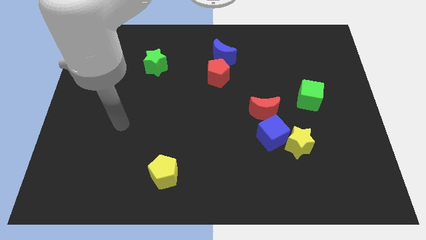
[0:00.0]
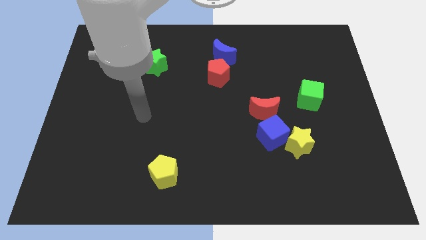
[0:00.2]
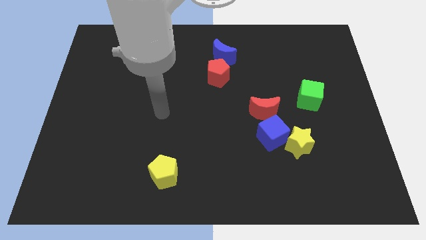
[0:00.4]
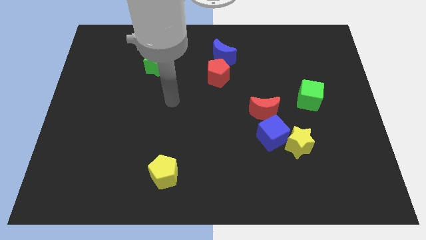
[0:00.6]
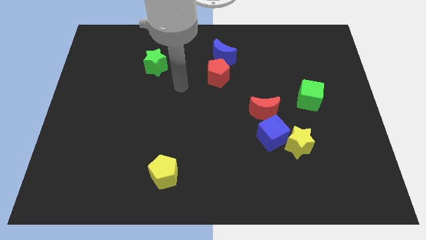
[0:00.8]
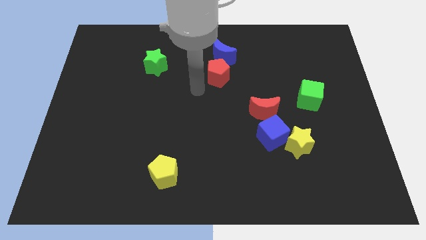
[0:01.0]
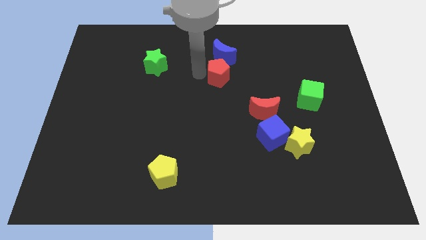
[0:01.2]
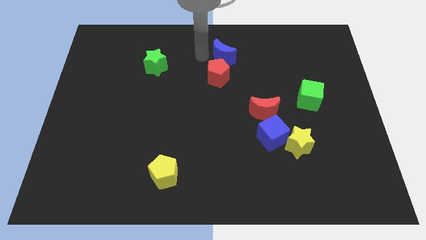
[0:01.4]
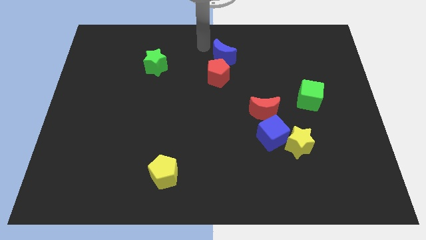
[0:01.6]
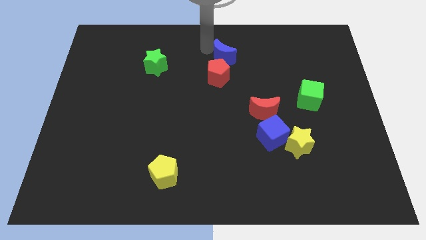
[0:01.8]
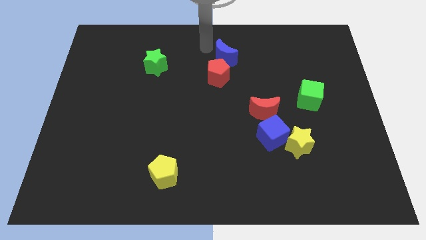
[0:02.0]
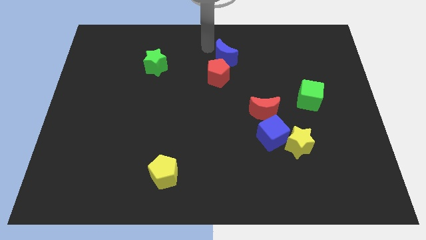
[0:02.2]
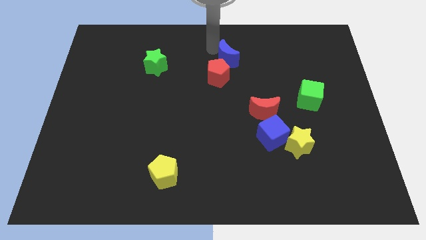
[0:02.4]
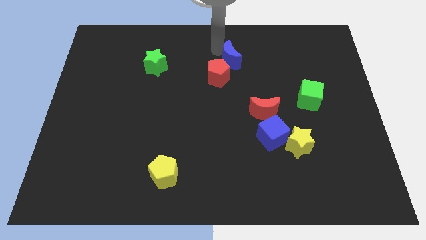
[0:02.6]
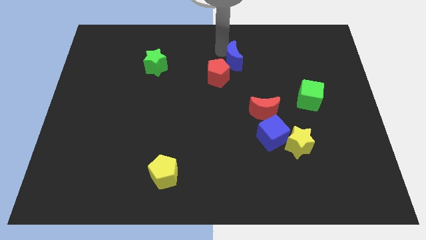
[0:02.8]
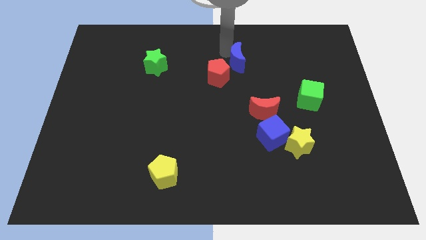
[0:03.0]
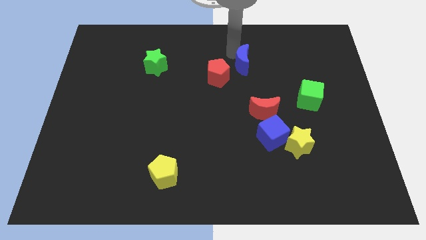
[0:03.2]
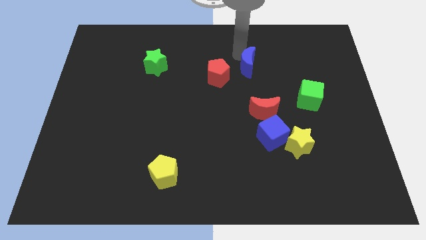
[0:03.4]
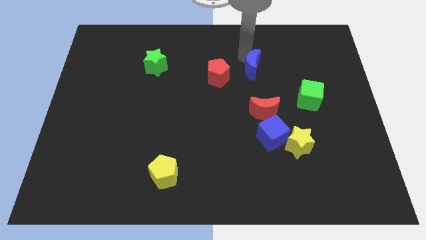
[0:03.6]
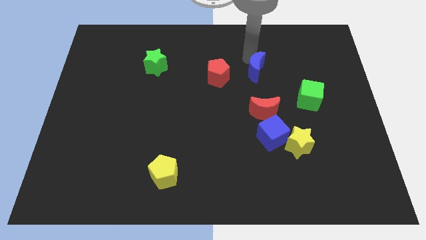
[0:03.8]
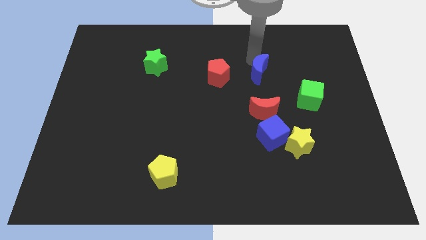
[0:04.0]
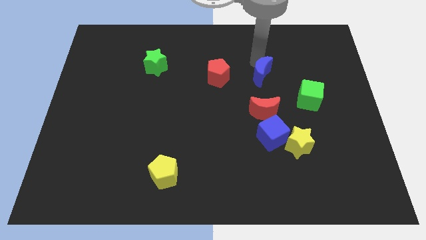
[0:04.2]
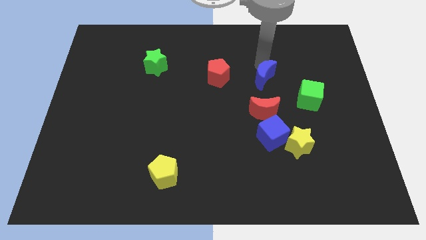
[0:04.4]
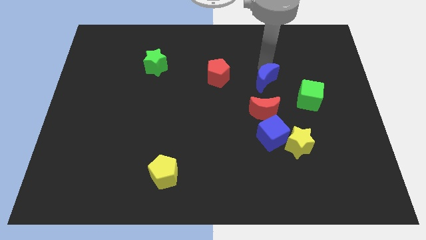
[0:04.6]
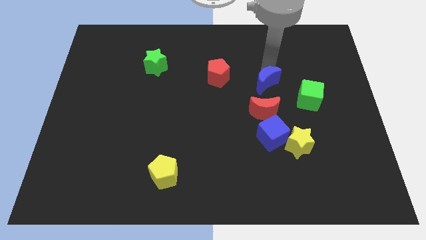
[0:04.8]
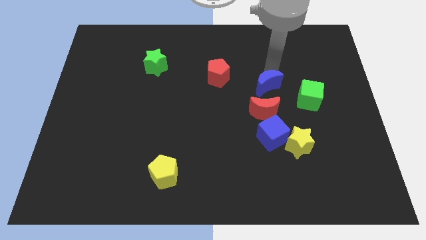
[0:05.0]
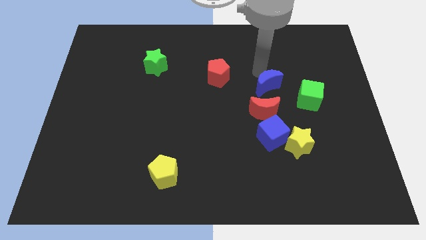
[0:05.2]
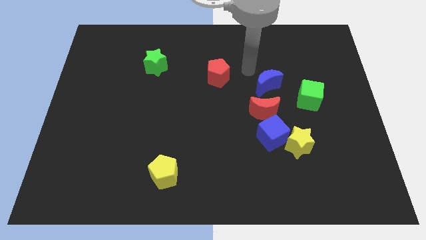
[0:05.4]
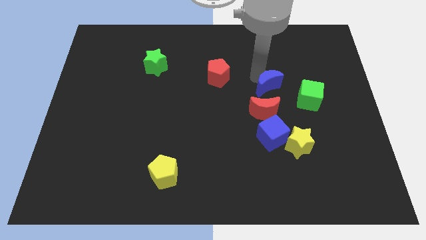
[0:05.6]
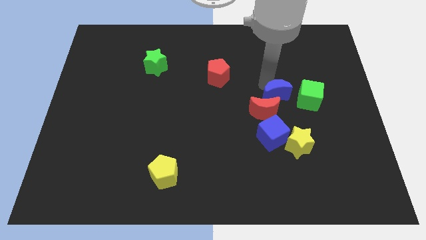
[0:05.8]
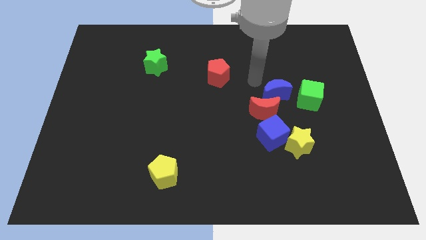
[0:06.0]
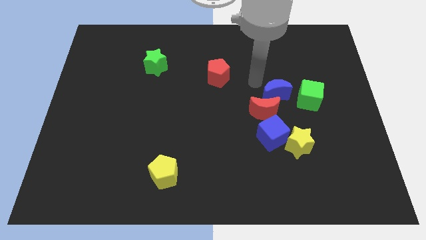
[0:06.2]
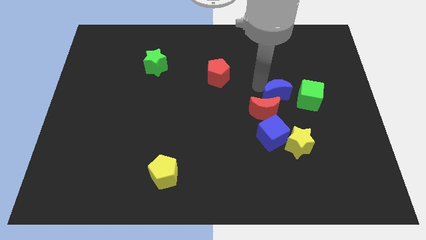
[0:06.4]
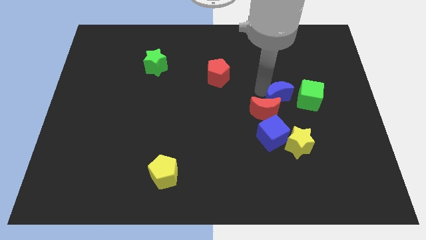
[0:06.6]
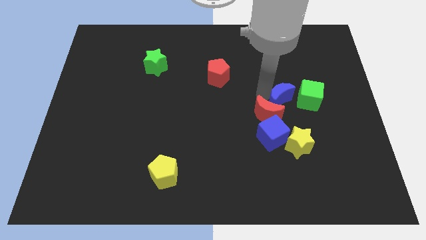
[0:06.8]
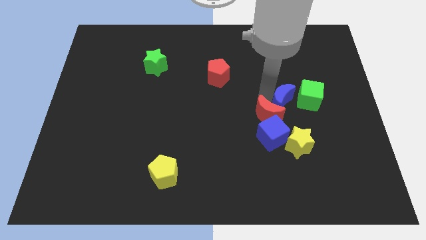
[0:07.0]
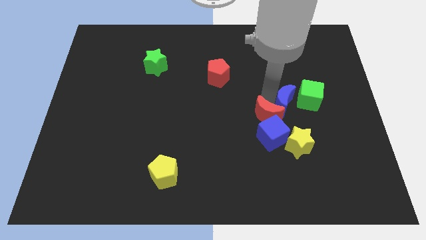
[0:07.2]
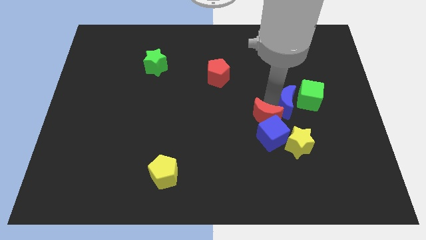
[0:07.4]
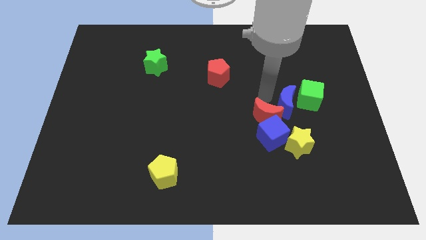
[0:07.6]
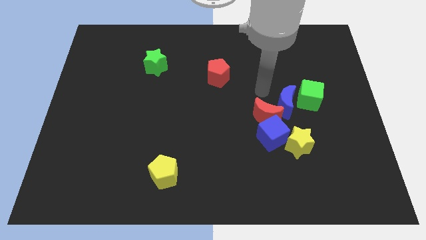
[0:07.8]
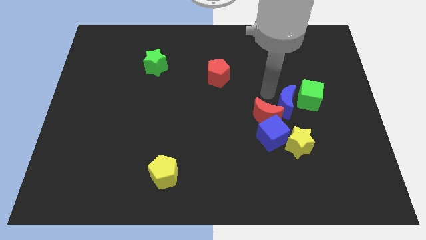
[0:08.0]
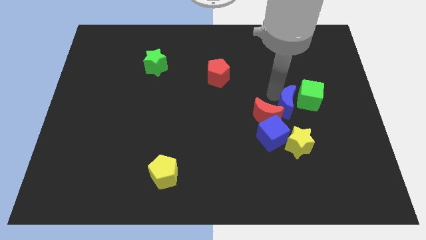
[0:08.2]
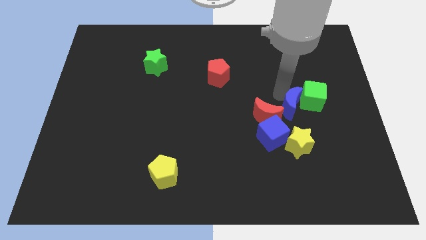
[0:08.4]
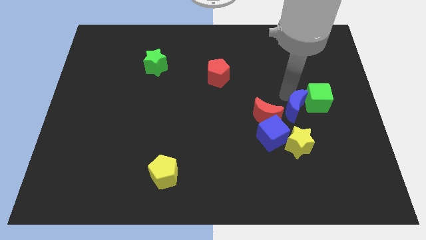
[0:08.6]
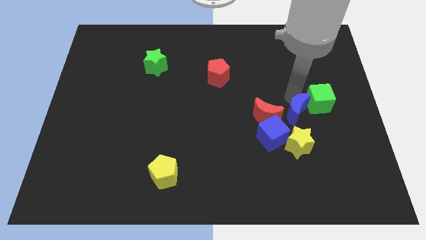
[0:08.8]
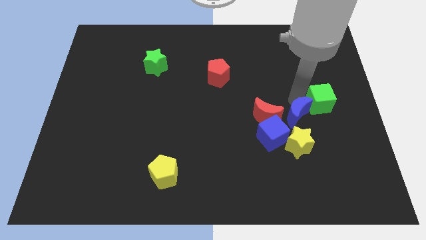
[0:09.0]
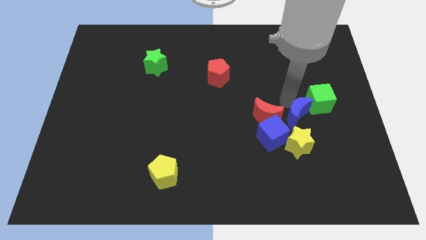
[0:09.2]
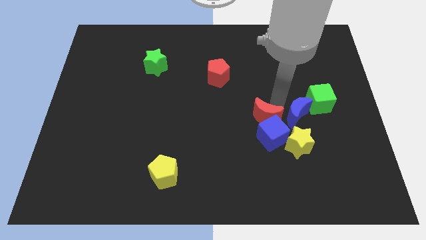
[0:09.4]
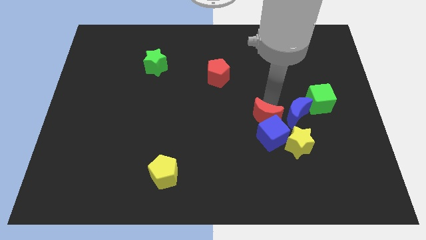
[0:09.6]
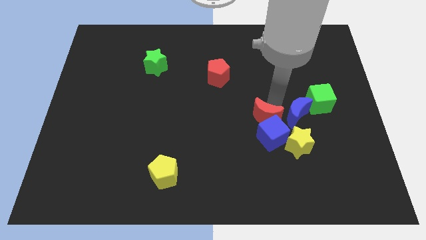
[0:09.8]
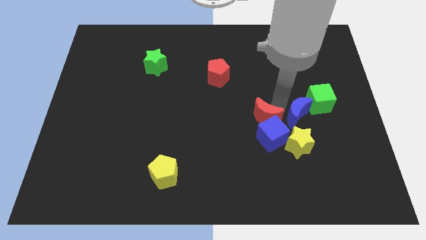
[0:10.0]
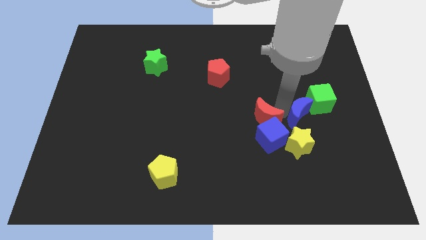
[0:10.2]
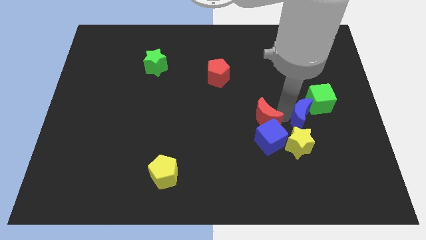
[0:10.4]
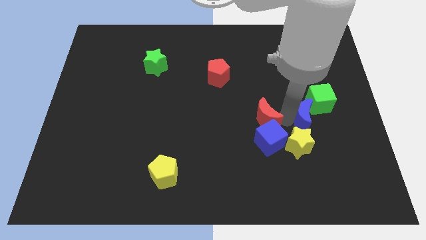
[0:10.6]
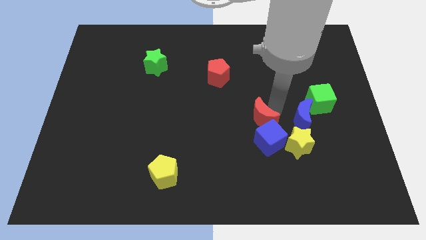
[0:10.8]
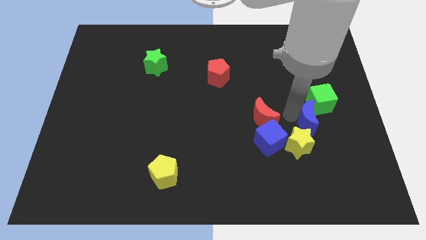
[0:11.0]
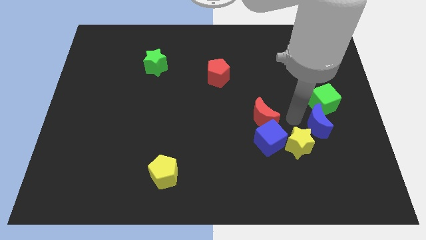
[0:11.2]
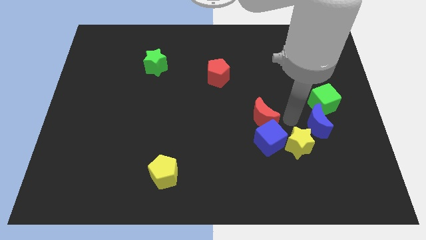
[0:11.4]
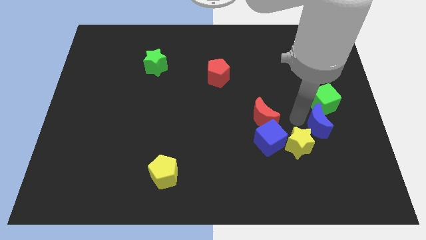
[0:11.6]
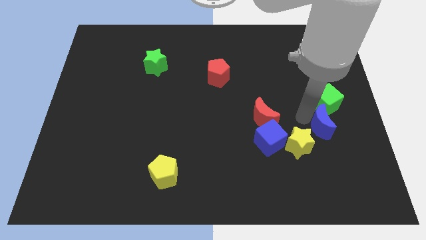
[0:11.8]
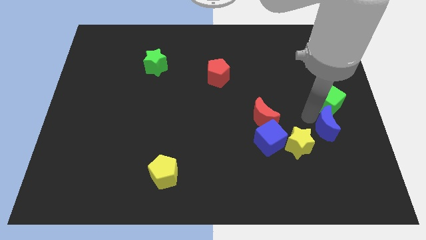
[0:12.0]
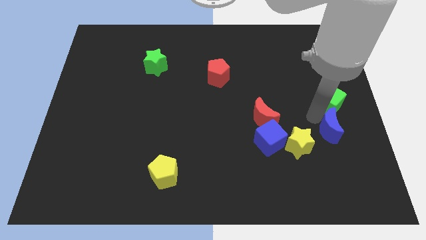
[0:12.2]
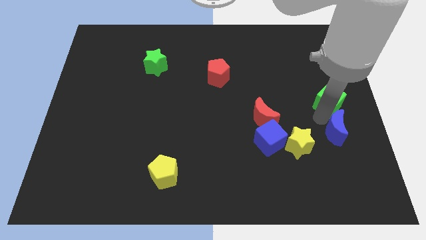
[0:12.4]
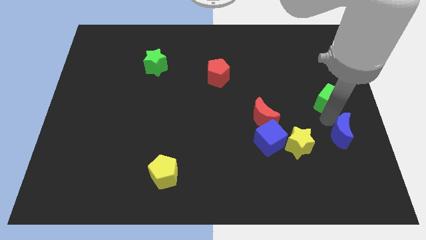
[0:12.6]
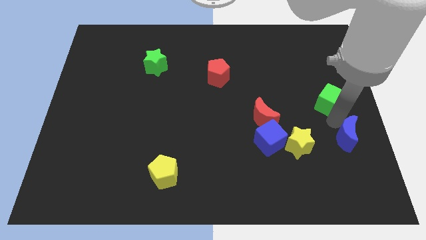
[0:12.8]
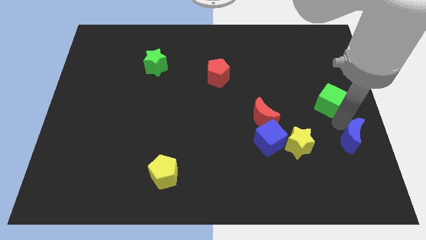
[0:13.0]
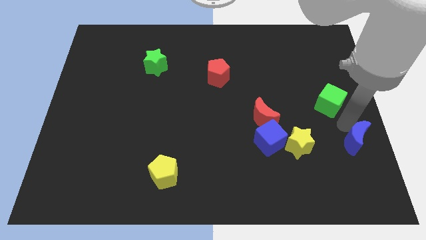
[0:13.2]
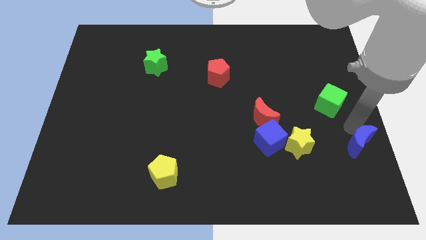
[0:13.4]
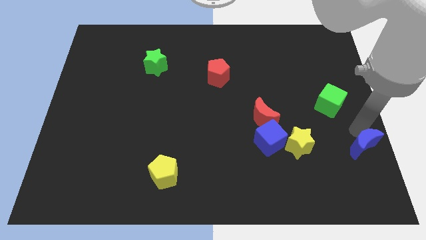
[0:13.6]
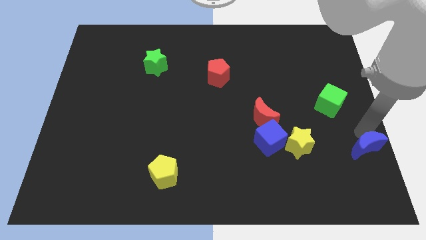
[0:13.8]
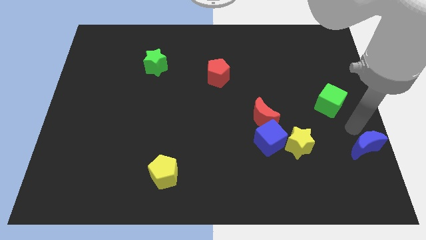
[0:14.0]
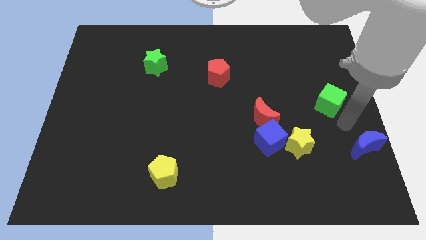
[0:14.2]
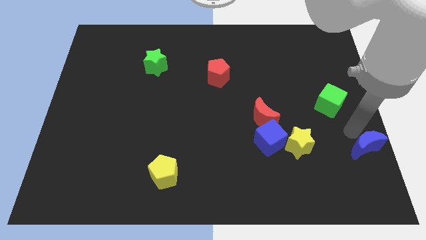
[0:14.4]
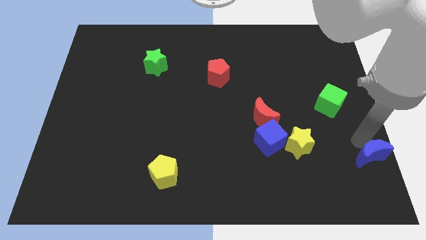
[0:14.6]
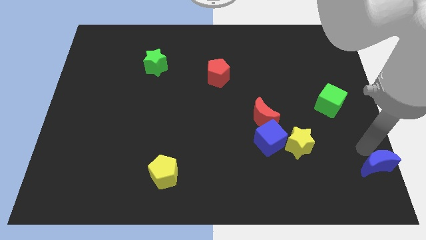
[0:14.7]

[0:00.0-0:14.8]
slide the blue moon to the lower right corner
